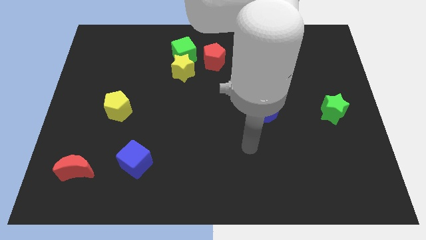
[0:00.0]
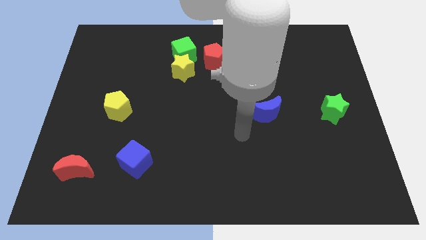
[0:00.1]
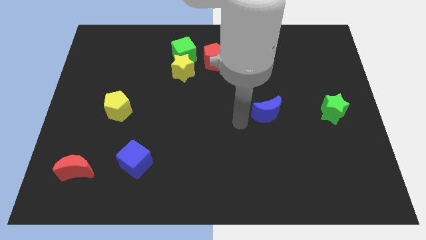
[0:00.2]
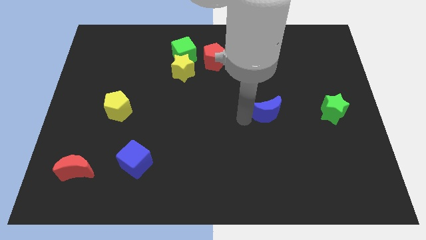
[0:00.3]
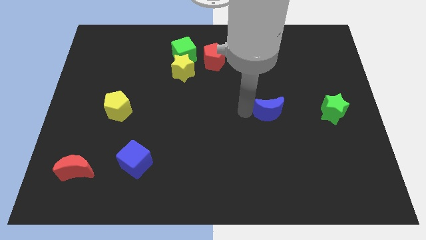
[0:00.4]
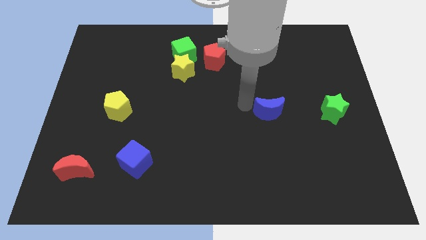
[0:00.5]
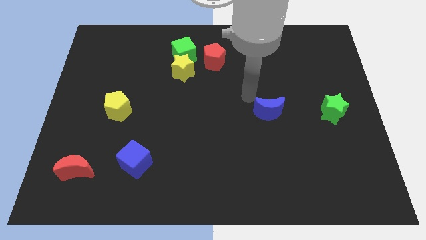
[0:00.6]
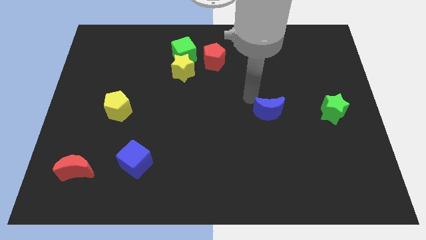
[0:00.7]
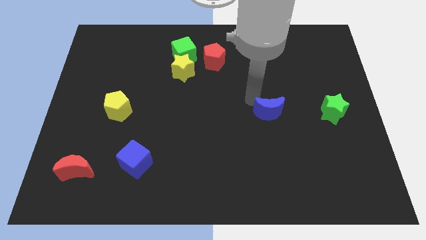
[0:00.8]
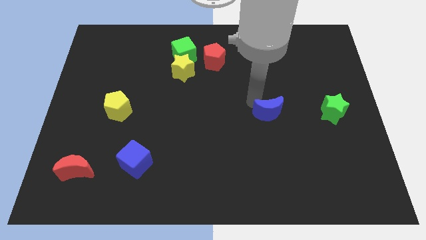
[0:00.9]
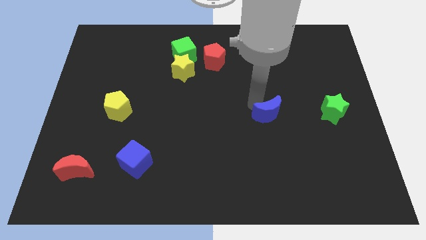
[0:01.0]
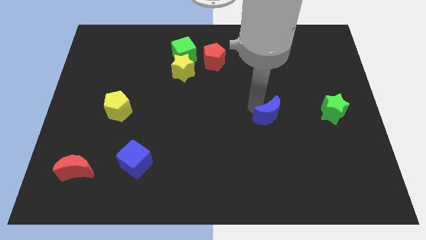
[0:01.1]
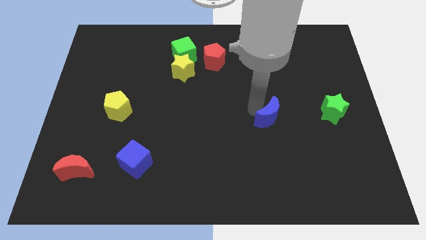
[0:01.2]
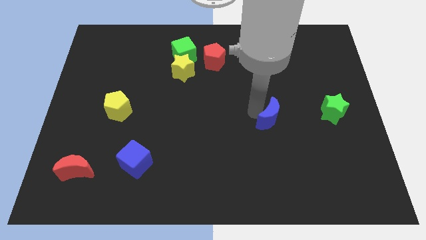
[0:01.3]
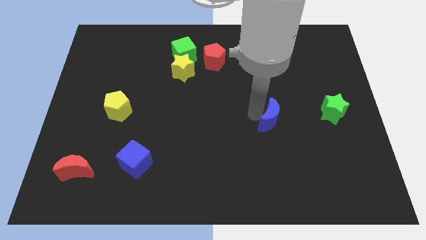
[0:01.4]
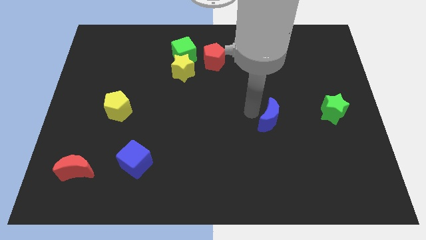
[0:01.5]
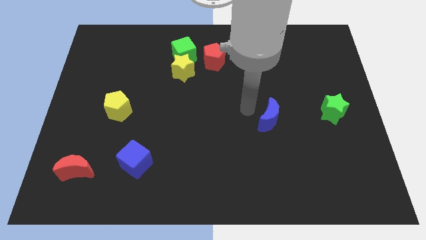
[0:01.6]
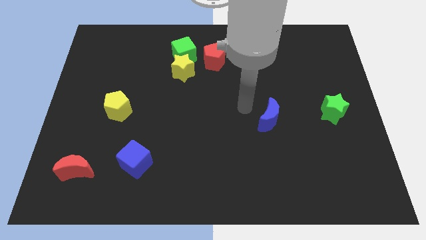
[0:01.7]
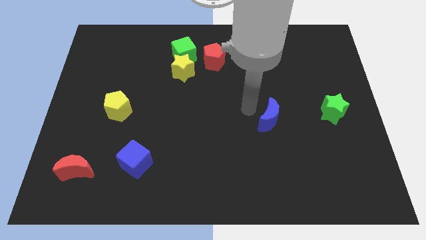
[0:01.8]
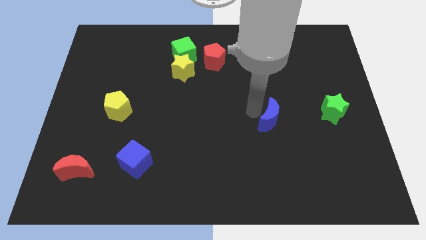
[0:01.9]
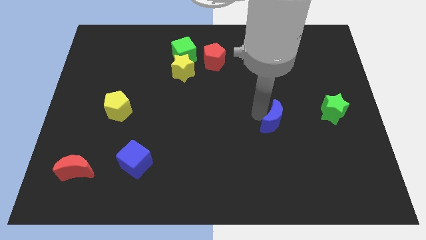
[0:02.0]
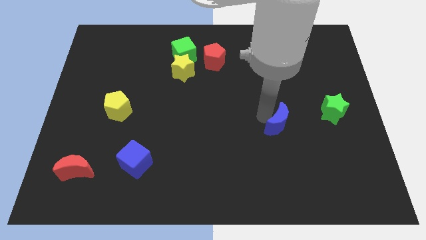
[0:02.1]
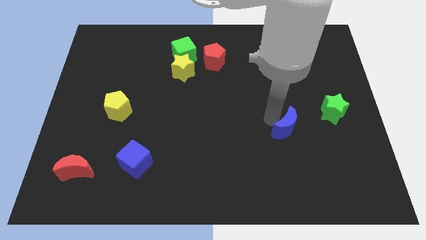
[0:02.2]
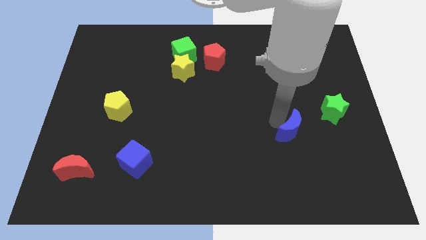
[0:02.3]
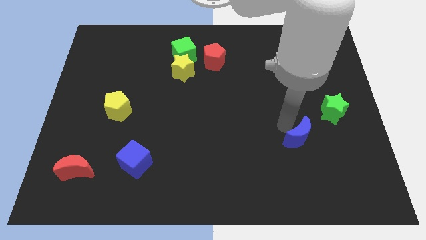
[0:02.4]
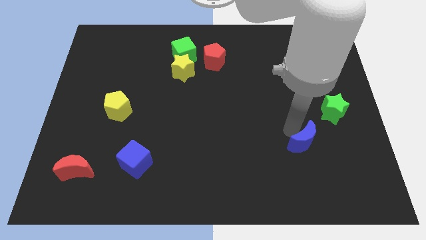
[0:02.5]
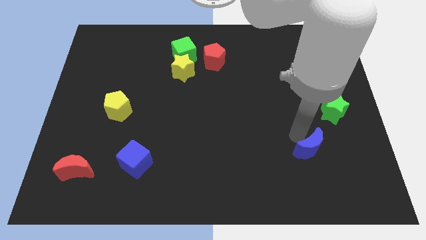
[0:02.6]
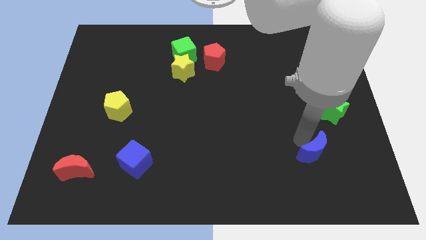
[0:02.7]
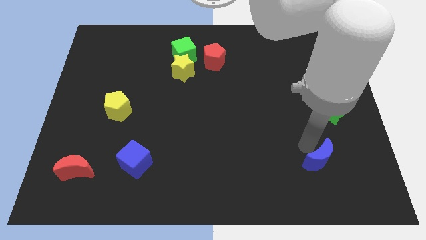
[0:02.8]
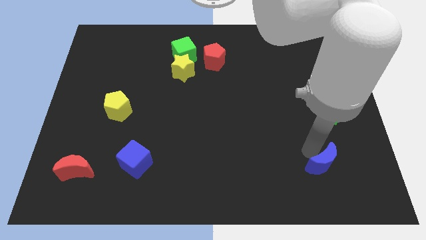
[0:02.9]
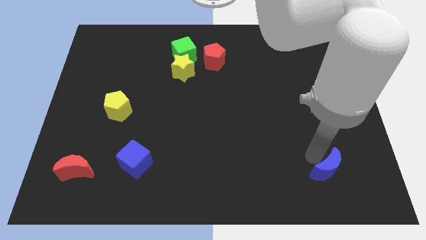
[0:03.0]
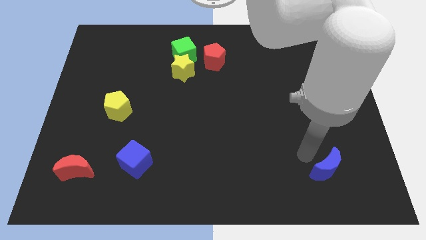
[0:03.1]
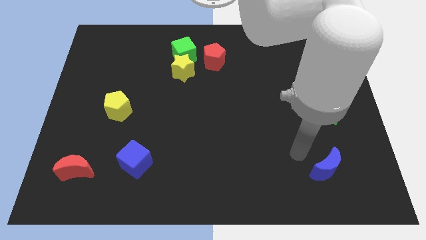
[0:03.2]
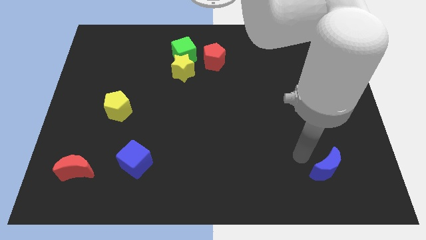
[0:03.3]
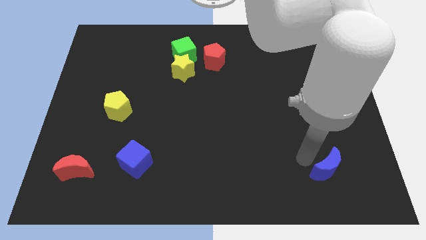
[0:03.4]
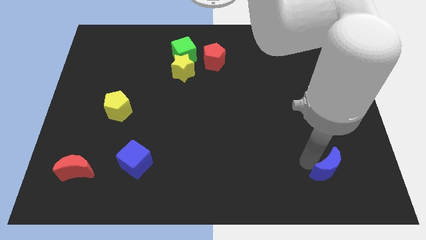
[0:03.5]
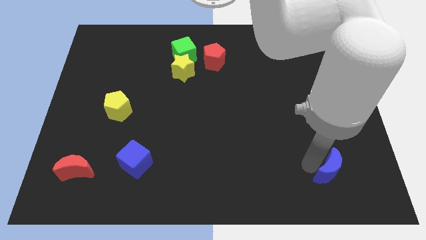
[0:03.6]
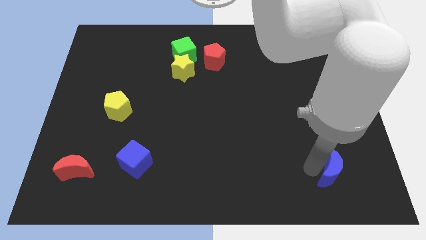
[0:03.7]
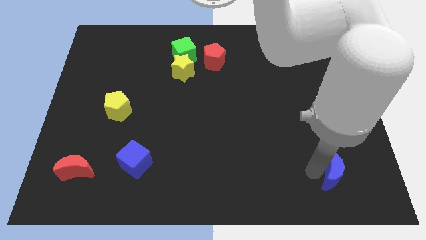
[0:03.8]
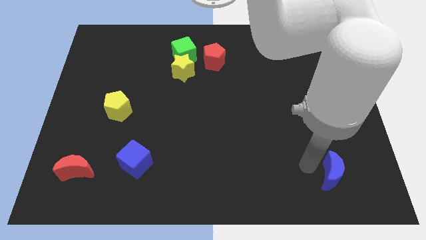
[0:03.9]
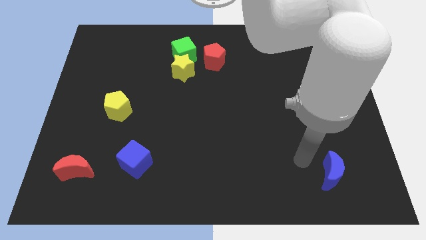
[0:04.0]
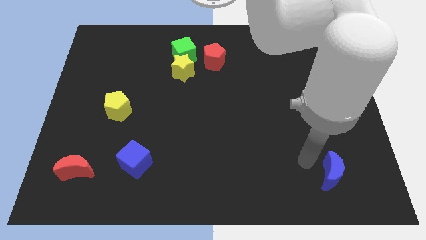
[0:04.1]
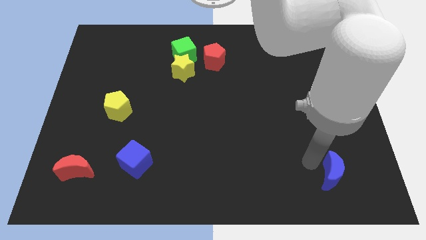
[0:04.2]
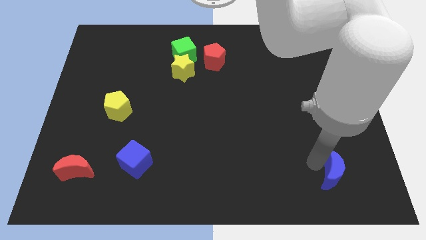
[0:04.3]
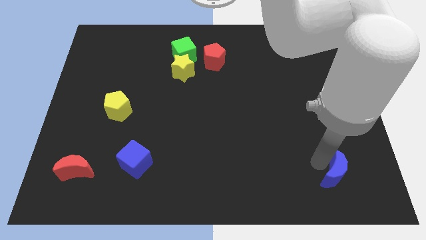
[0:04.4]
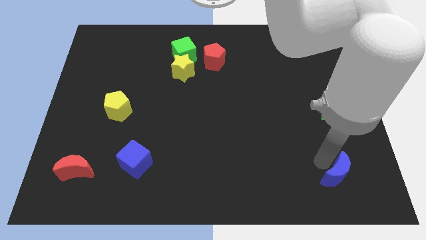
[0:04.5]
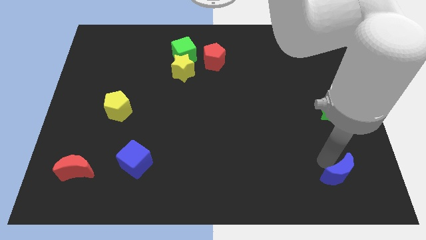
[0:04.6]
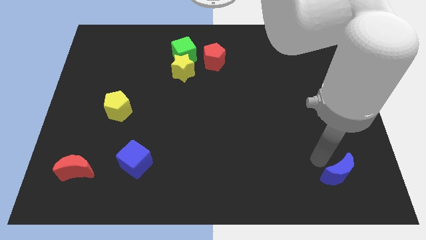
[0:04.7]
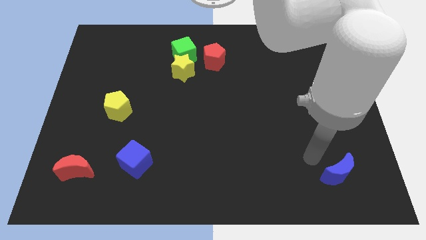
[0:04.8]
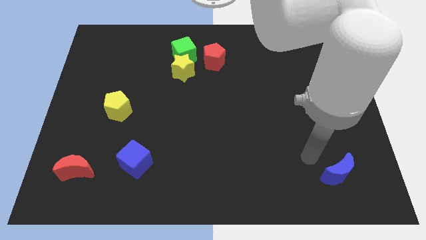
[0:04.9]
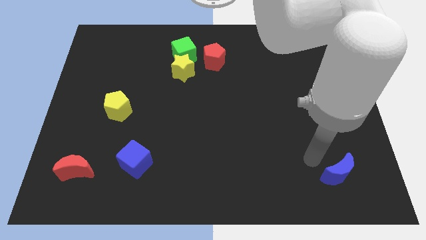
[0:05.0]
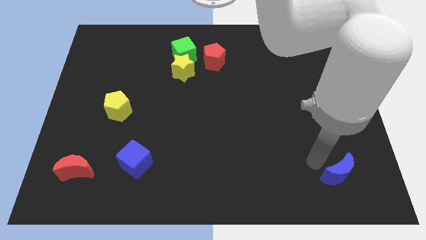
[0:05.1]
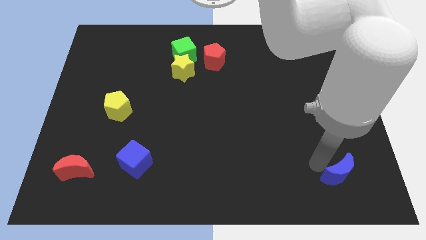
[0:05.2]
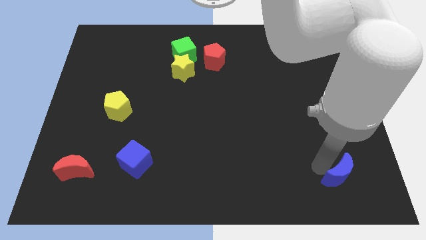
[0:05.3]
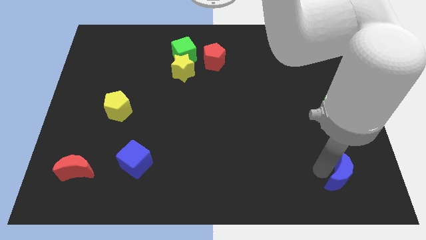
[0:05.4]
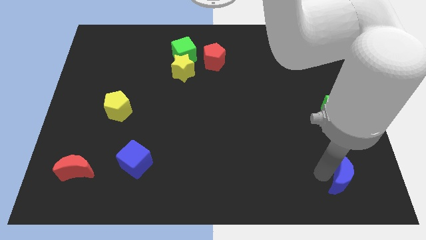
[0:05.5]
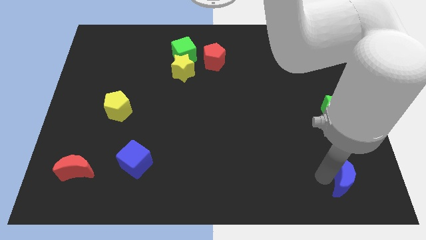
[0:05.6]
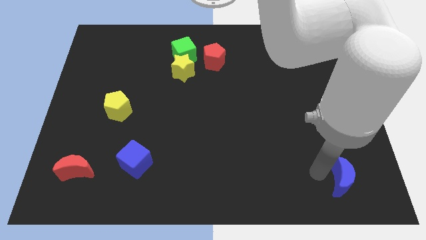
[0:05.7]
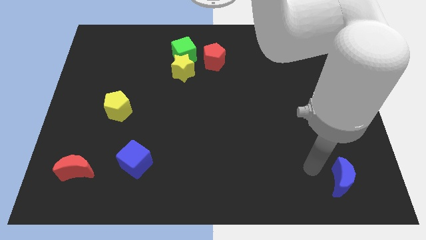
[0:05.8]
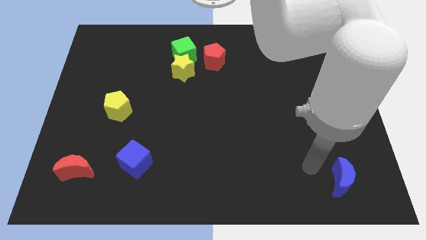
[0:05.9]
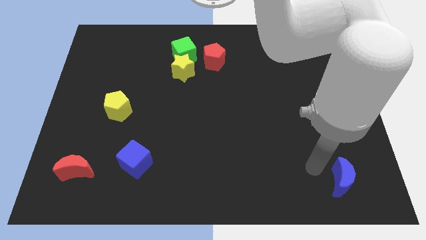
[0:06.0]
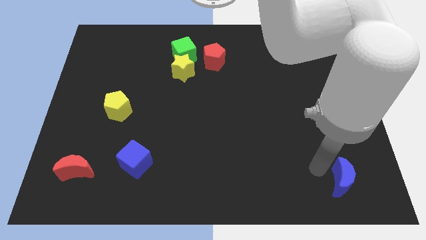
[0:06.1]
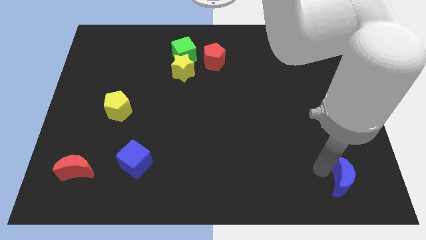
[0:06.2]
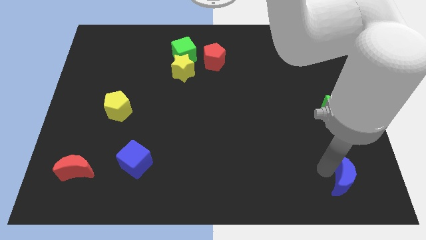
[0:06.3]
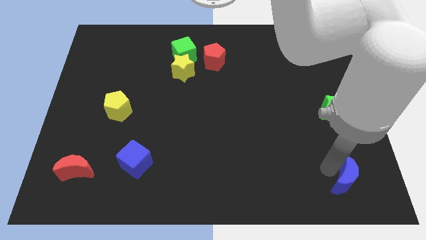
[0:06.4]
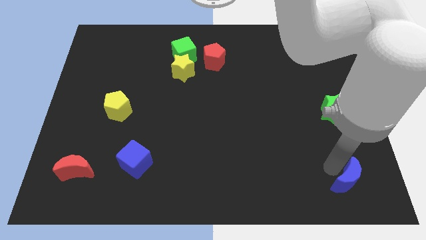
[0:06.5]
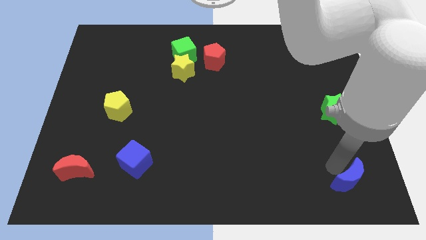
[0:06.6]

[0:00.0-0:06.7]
push the blue moon to the bottom right of the board
